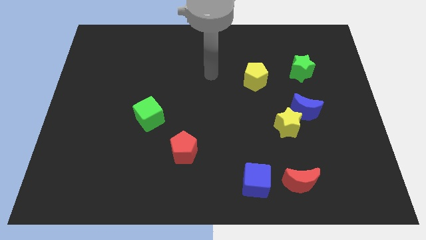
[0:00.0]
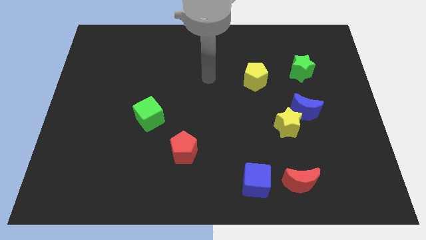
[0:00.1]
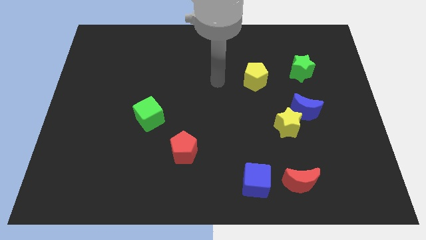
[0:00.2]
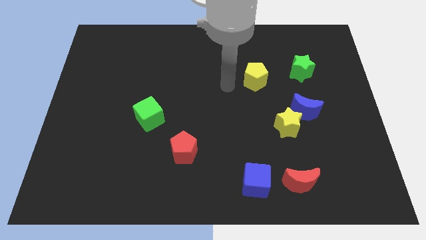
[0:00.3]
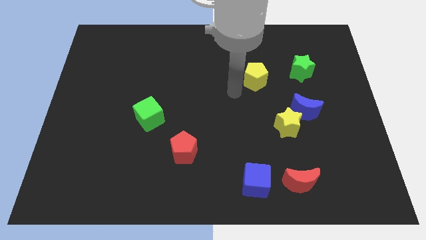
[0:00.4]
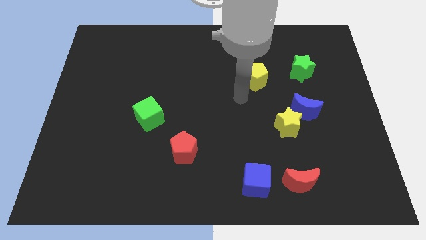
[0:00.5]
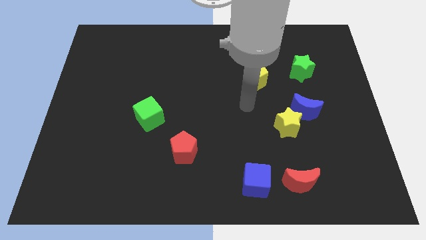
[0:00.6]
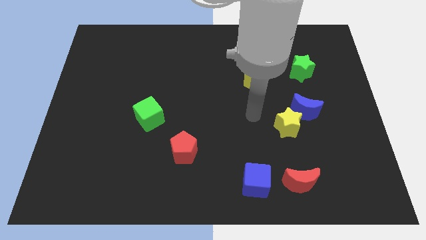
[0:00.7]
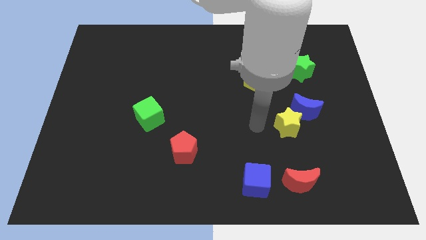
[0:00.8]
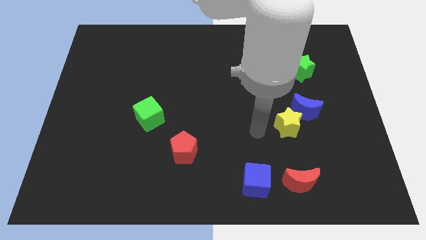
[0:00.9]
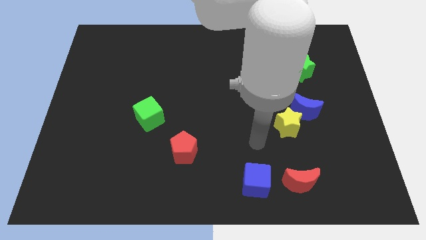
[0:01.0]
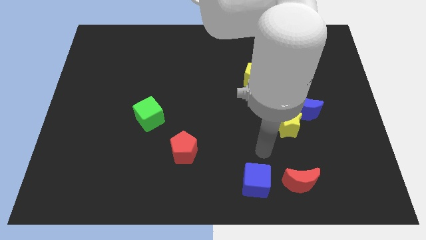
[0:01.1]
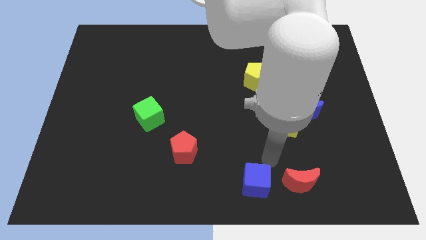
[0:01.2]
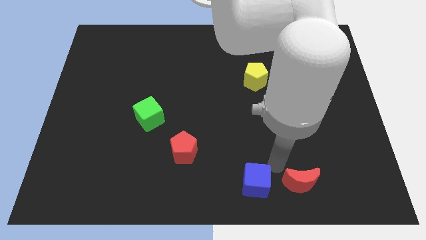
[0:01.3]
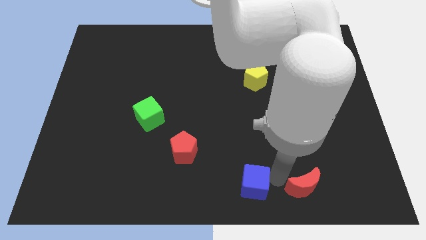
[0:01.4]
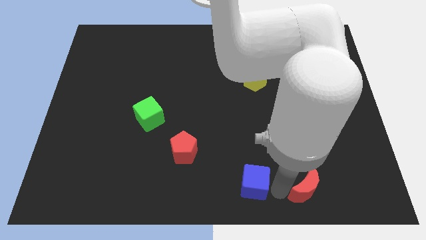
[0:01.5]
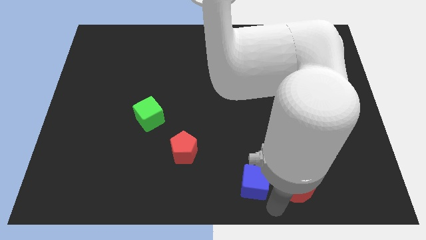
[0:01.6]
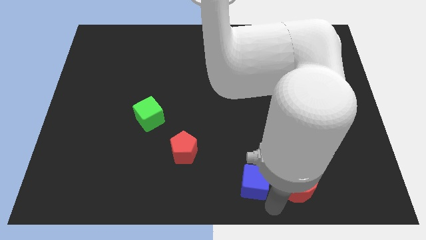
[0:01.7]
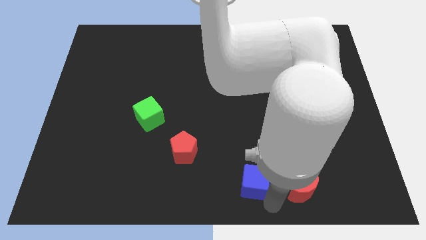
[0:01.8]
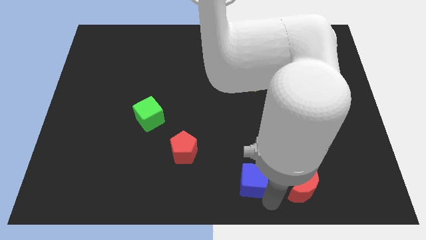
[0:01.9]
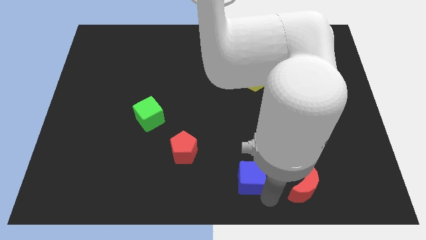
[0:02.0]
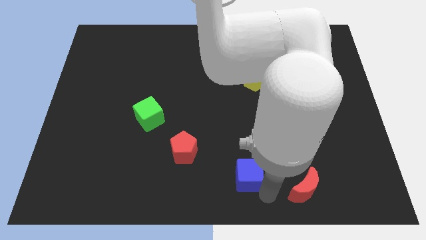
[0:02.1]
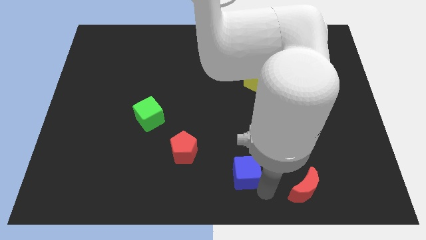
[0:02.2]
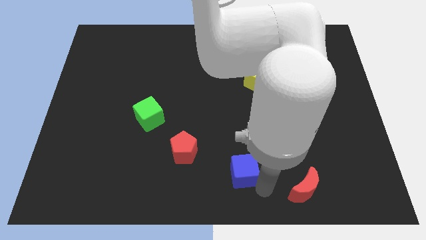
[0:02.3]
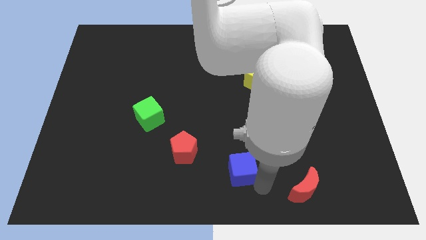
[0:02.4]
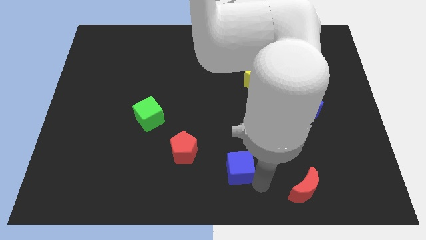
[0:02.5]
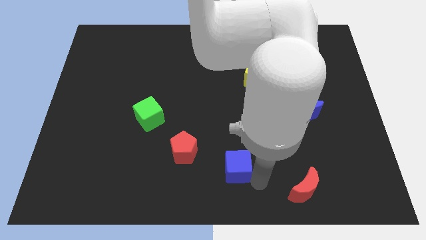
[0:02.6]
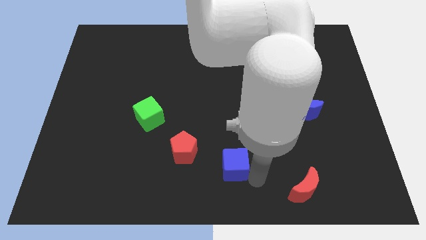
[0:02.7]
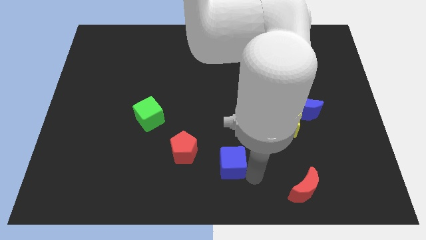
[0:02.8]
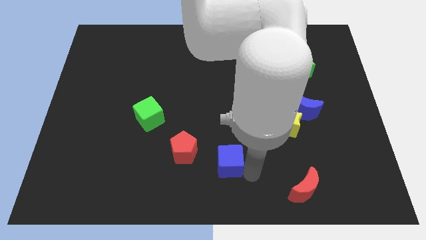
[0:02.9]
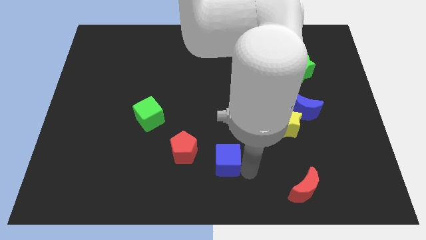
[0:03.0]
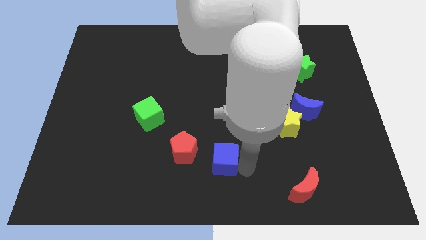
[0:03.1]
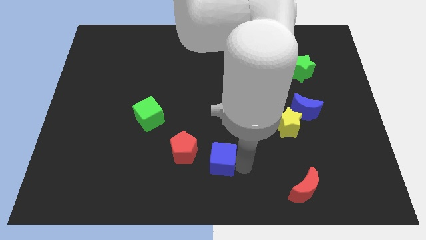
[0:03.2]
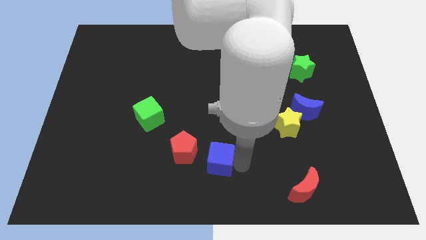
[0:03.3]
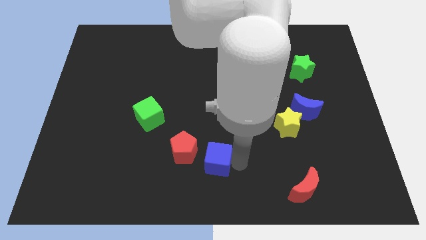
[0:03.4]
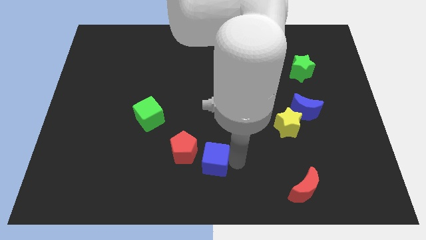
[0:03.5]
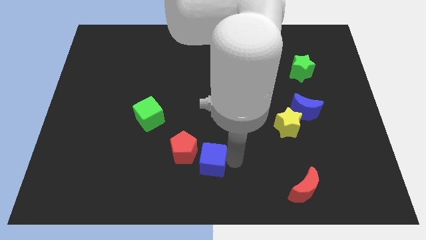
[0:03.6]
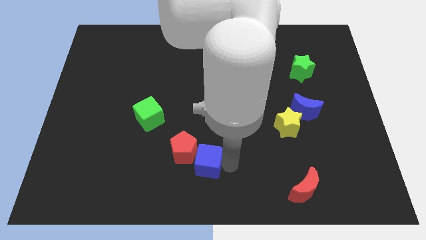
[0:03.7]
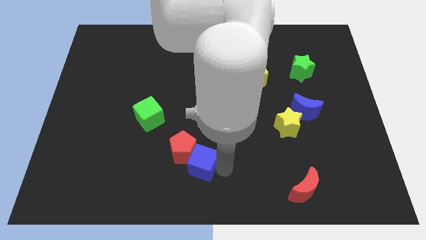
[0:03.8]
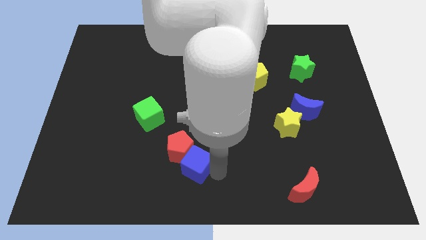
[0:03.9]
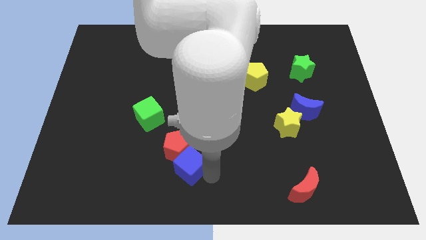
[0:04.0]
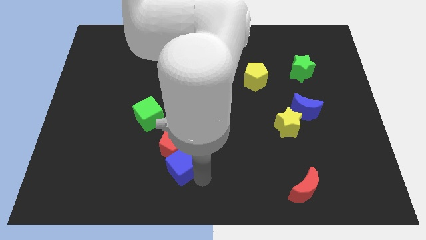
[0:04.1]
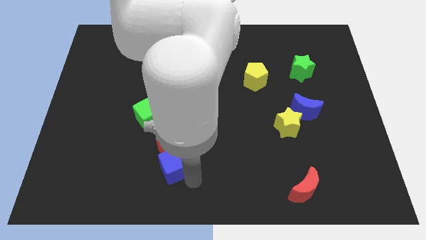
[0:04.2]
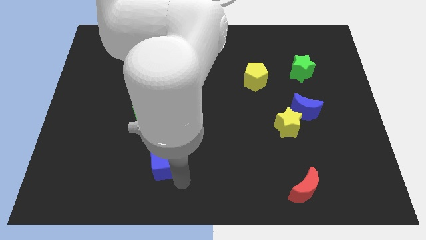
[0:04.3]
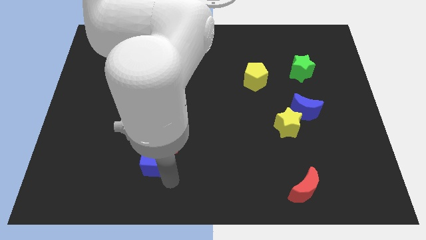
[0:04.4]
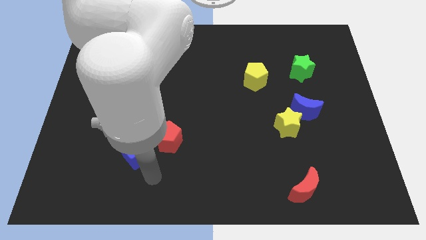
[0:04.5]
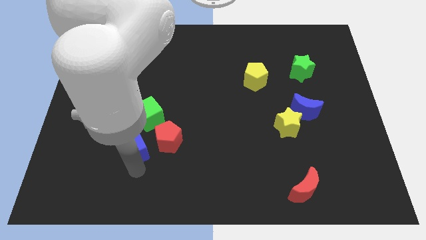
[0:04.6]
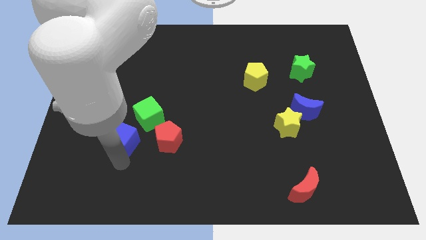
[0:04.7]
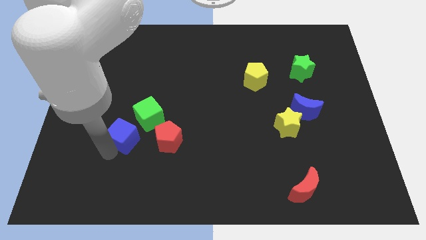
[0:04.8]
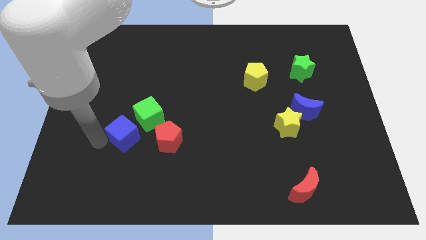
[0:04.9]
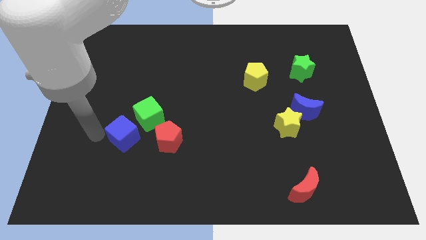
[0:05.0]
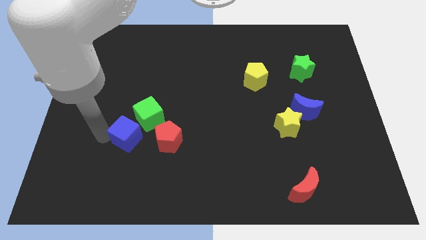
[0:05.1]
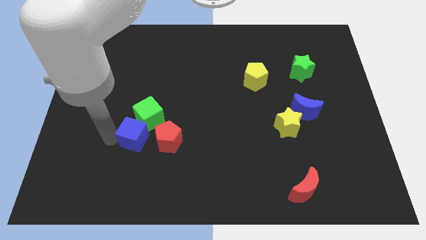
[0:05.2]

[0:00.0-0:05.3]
push the blue cube next to the green cube

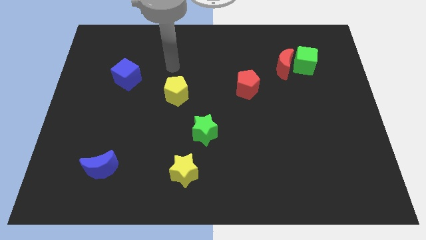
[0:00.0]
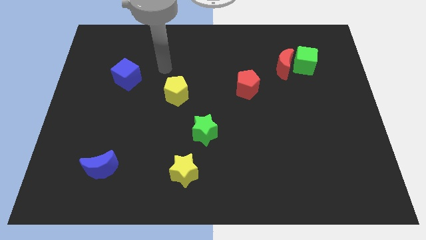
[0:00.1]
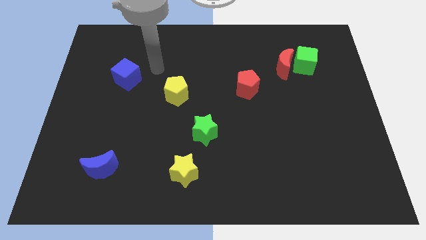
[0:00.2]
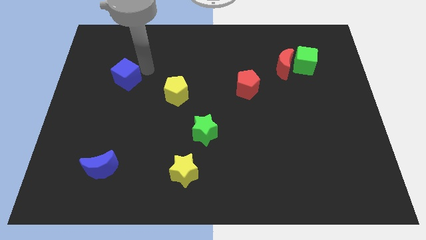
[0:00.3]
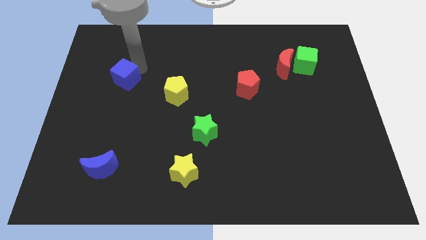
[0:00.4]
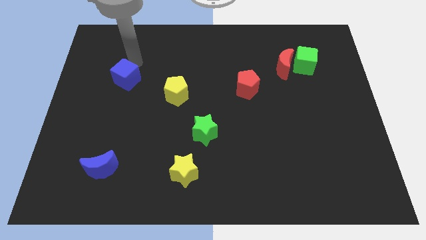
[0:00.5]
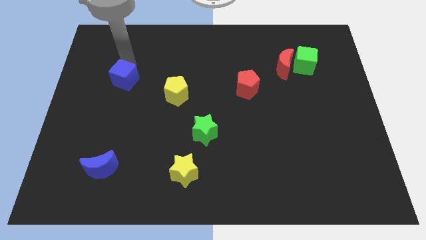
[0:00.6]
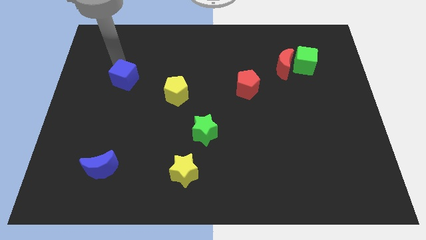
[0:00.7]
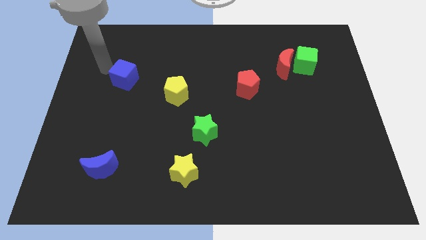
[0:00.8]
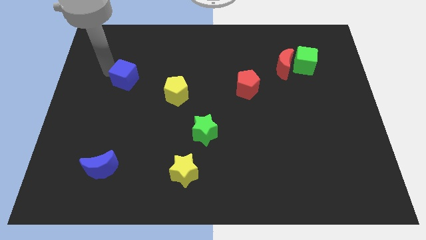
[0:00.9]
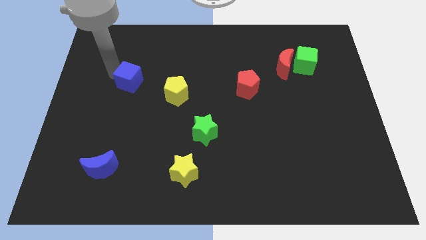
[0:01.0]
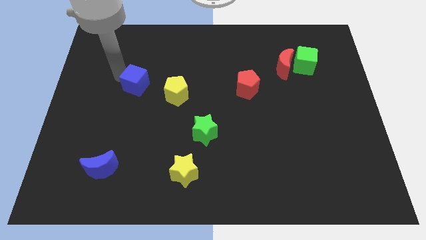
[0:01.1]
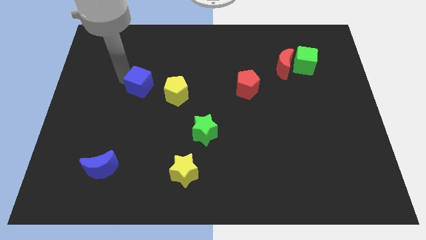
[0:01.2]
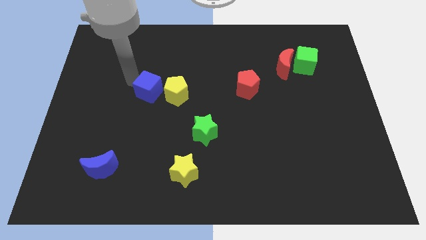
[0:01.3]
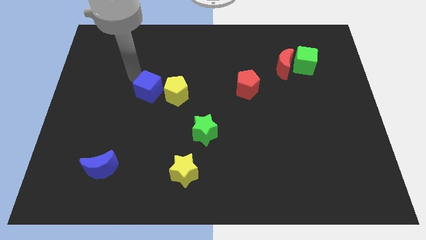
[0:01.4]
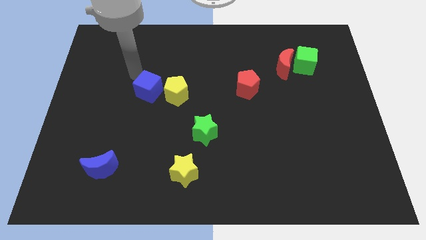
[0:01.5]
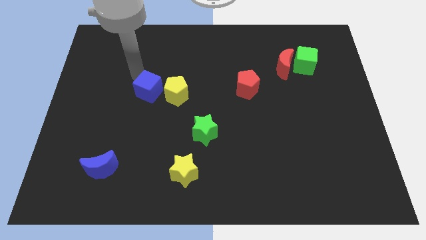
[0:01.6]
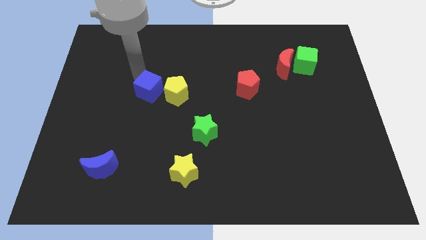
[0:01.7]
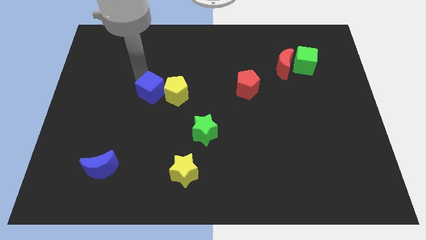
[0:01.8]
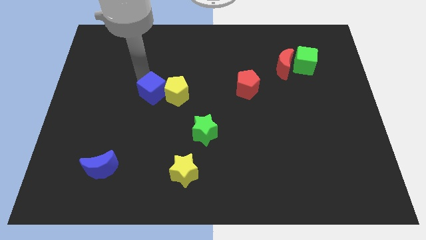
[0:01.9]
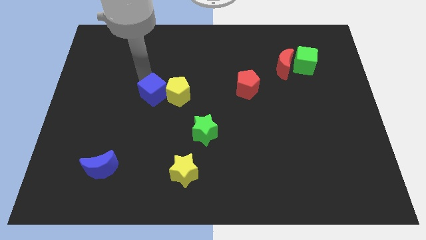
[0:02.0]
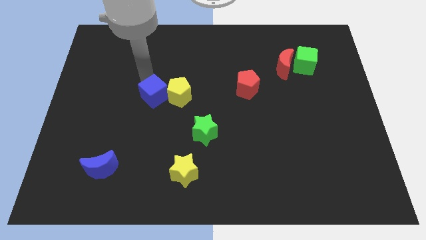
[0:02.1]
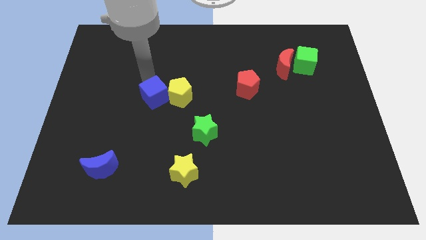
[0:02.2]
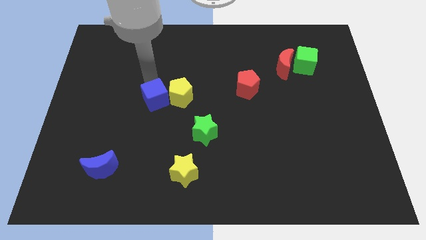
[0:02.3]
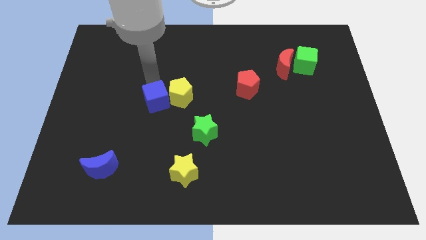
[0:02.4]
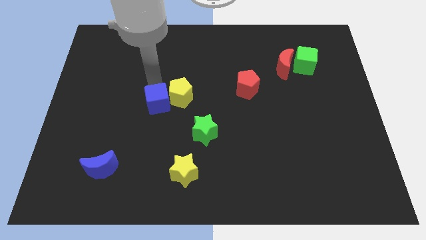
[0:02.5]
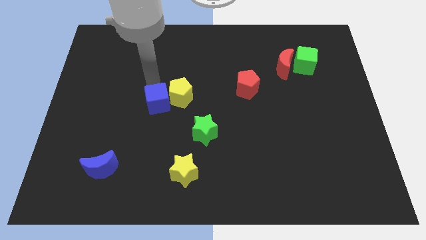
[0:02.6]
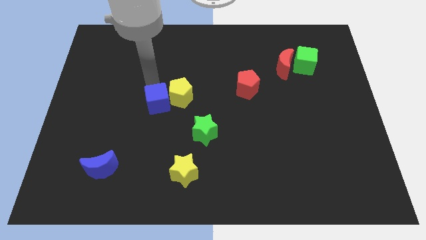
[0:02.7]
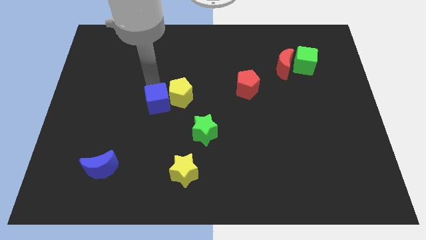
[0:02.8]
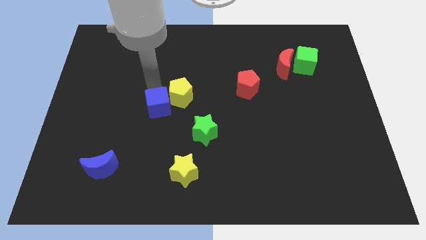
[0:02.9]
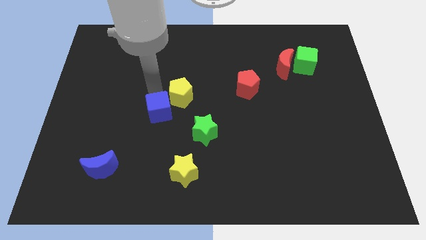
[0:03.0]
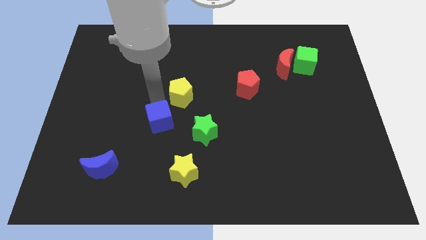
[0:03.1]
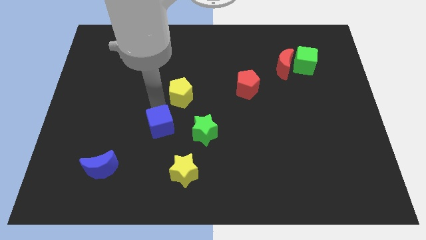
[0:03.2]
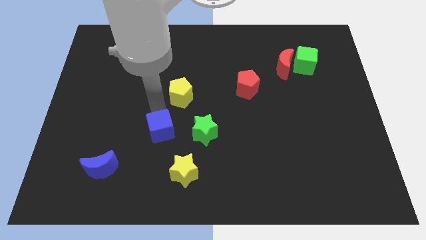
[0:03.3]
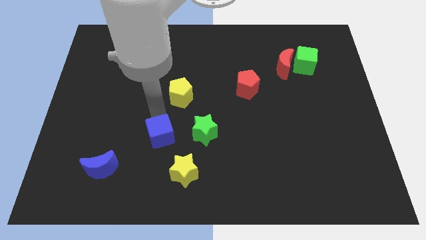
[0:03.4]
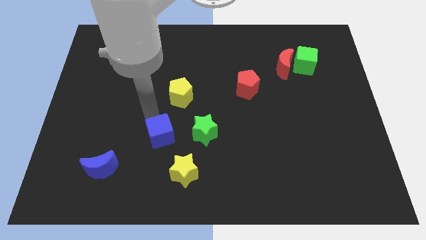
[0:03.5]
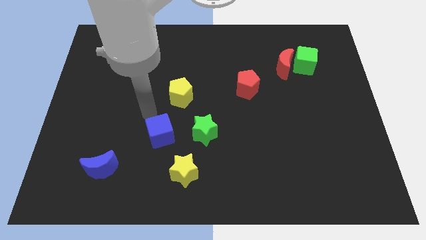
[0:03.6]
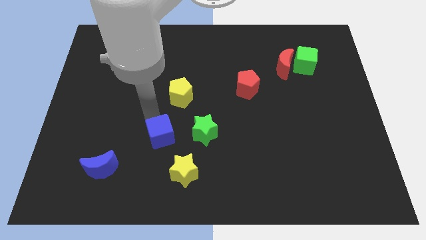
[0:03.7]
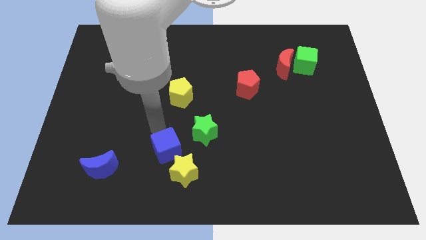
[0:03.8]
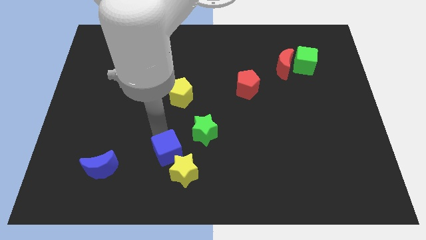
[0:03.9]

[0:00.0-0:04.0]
slide the blue cube to the yellow star
